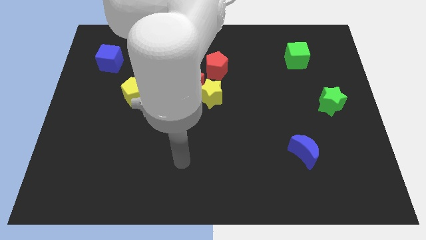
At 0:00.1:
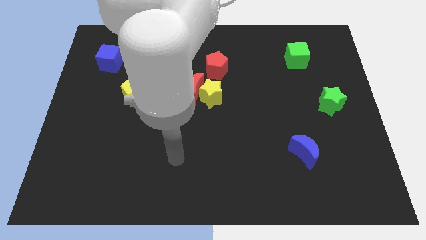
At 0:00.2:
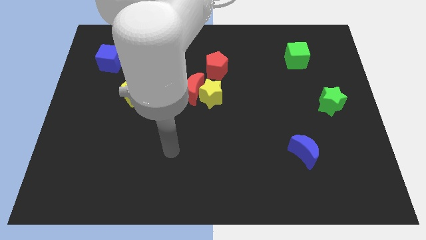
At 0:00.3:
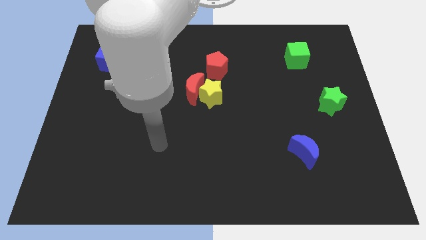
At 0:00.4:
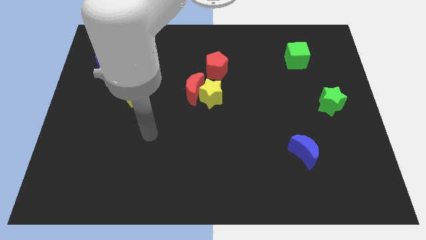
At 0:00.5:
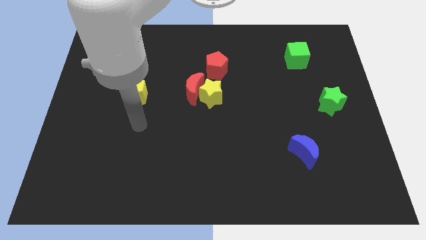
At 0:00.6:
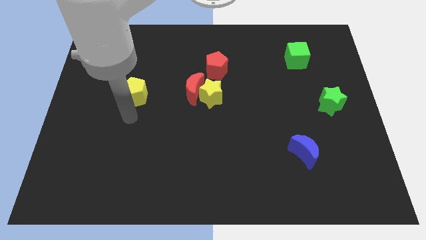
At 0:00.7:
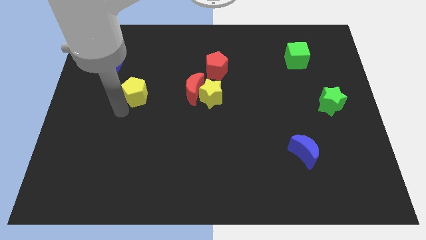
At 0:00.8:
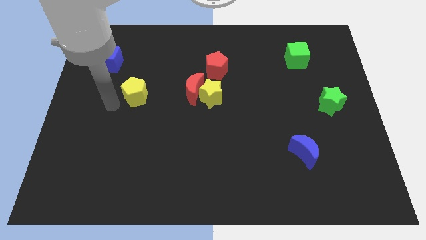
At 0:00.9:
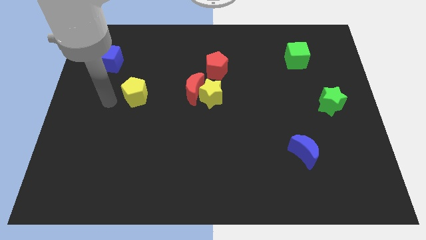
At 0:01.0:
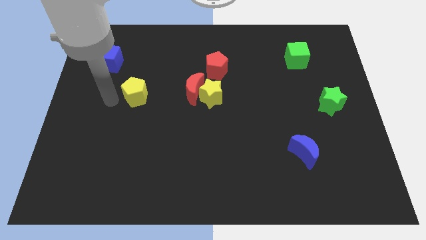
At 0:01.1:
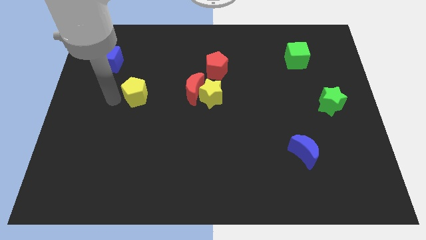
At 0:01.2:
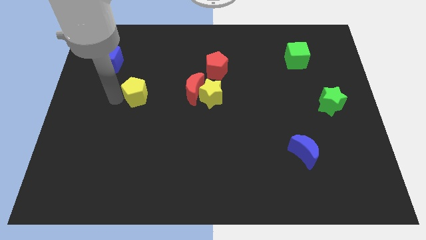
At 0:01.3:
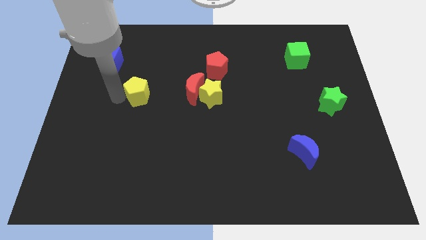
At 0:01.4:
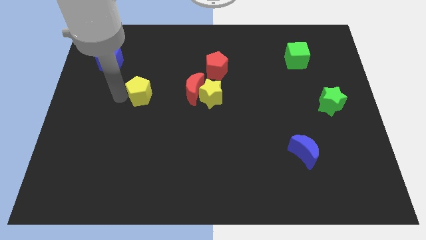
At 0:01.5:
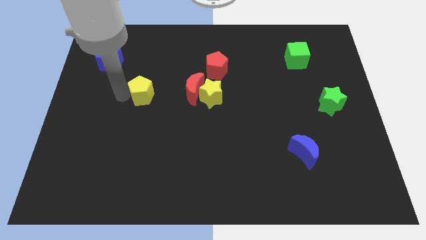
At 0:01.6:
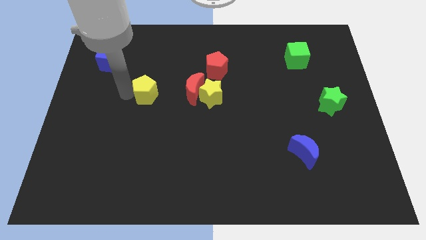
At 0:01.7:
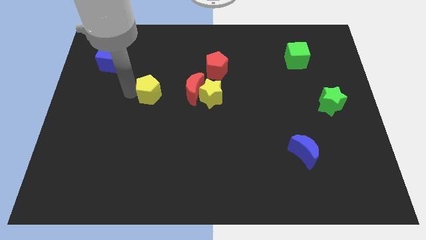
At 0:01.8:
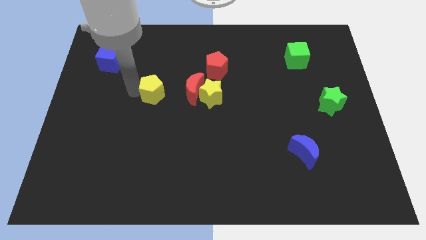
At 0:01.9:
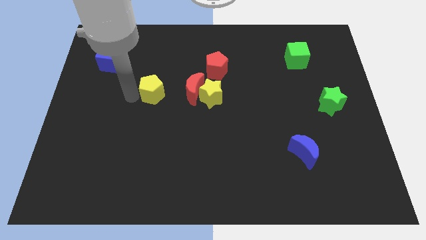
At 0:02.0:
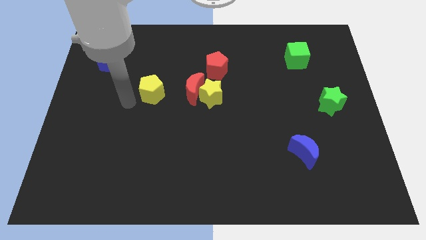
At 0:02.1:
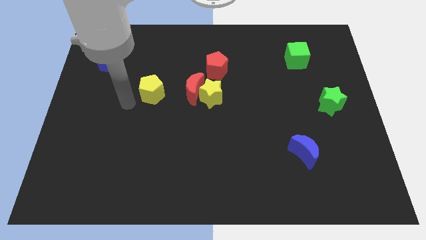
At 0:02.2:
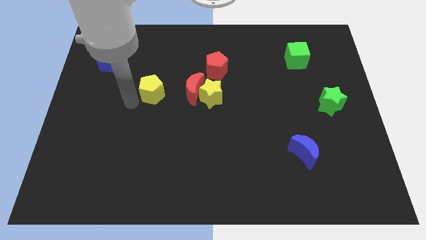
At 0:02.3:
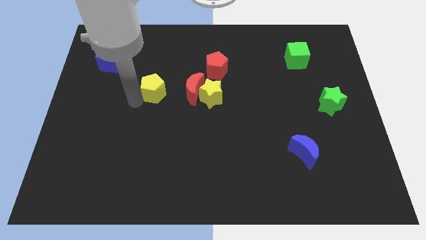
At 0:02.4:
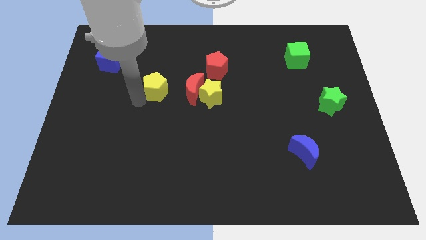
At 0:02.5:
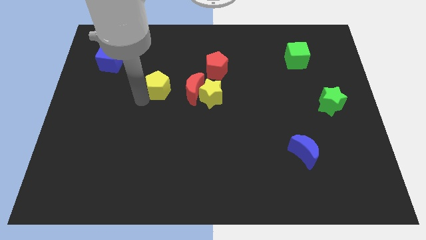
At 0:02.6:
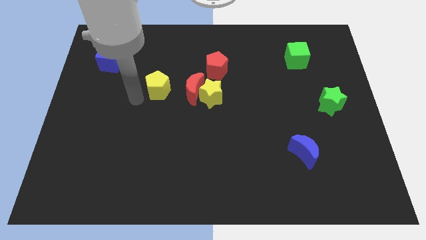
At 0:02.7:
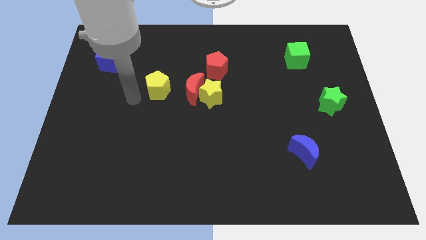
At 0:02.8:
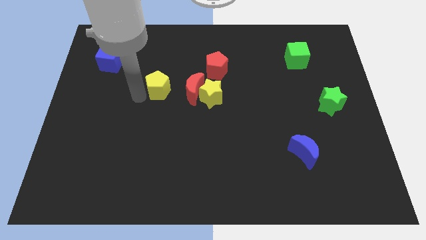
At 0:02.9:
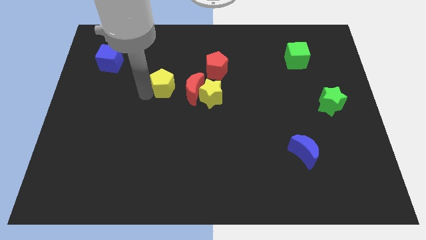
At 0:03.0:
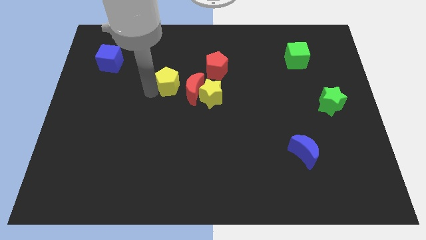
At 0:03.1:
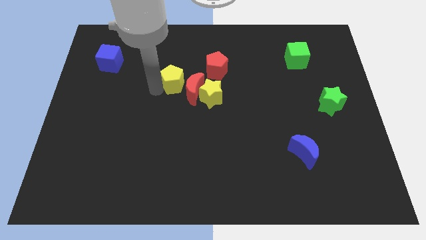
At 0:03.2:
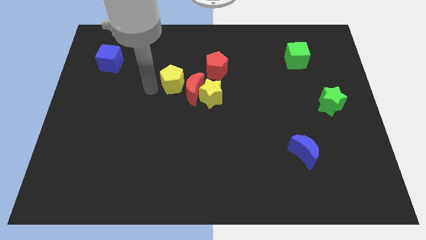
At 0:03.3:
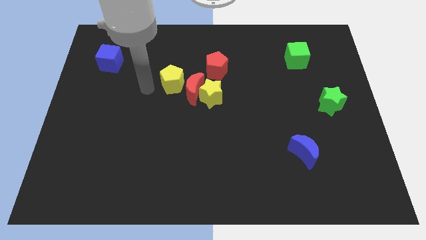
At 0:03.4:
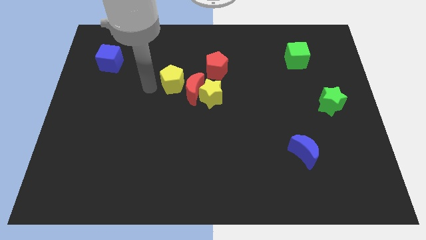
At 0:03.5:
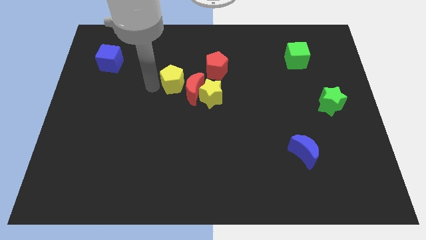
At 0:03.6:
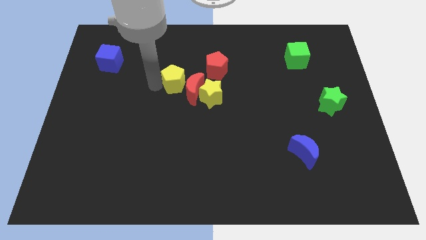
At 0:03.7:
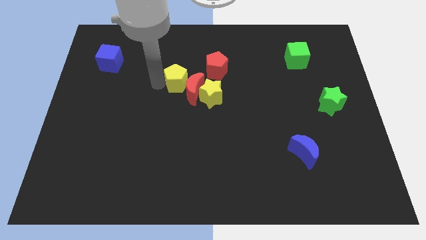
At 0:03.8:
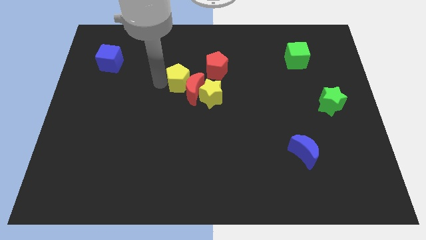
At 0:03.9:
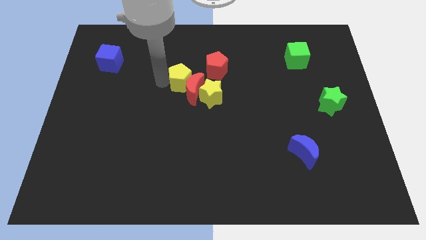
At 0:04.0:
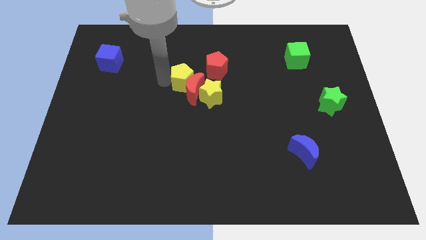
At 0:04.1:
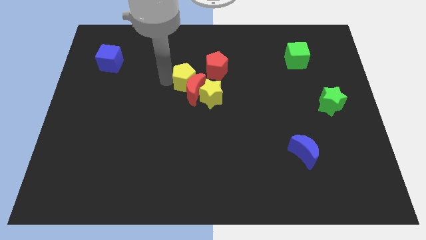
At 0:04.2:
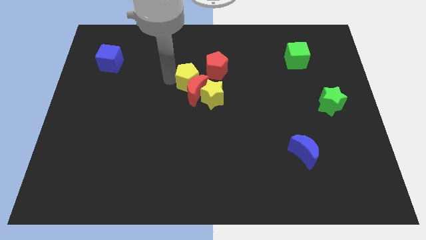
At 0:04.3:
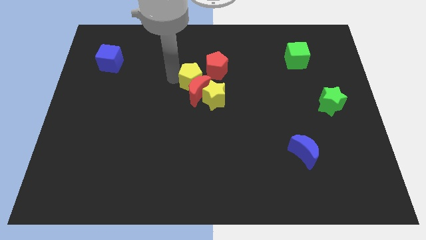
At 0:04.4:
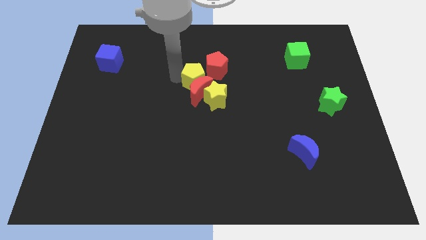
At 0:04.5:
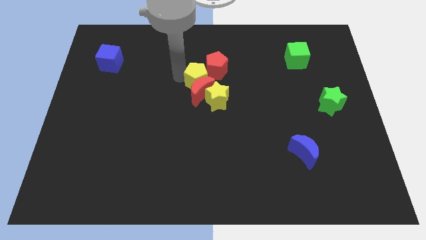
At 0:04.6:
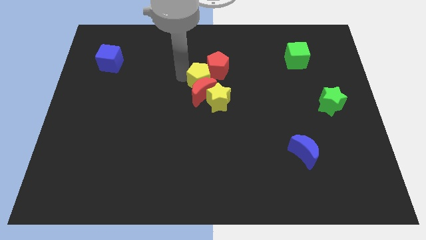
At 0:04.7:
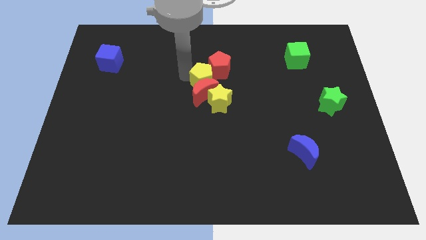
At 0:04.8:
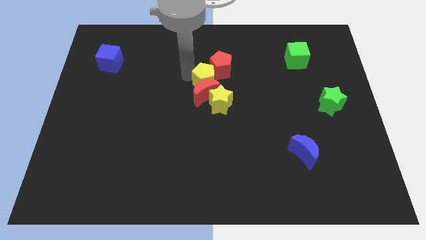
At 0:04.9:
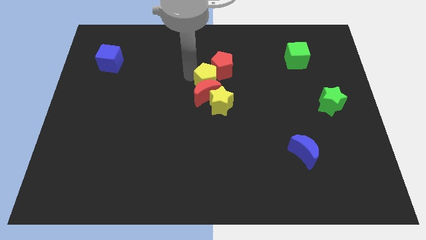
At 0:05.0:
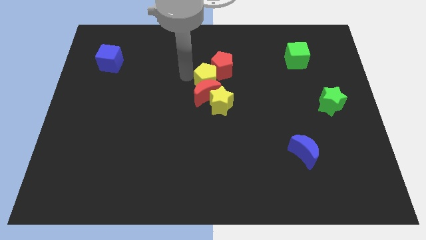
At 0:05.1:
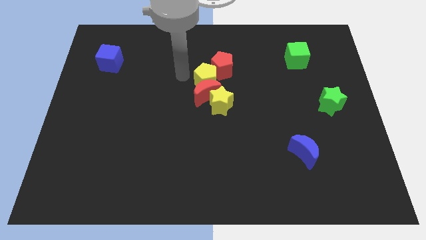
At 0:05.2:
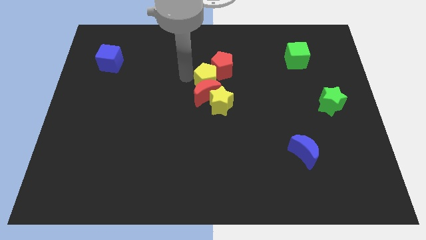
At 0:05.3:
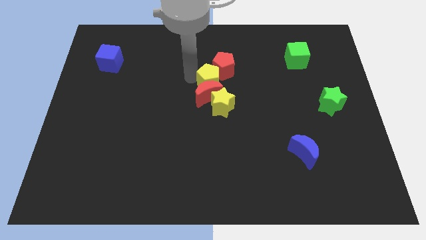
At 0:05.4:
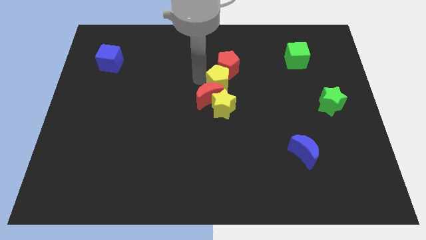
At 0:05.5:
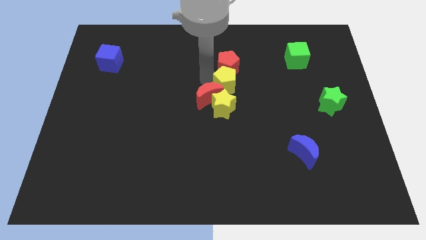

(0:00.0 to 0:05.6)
move the yellow pentagon right

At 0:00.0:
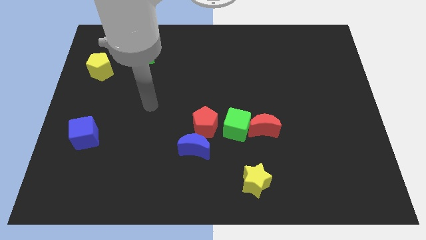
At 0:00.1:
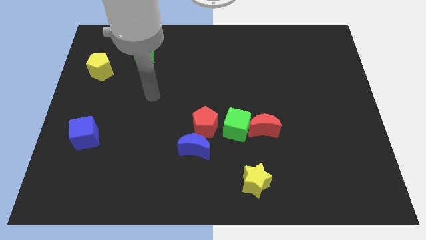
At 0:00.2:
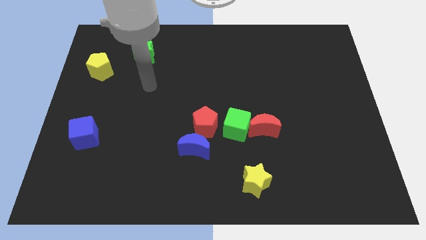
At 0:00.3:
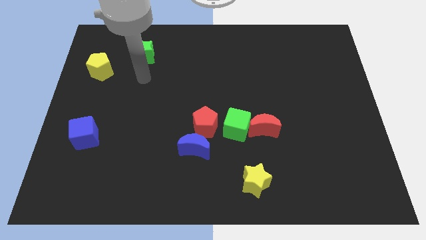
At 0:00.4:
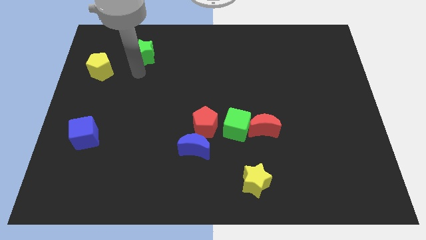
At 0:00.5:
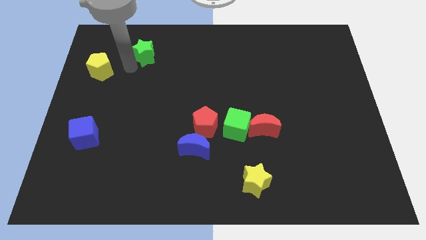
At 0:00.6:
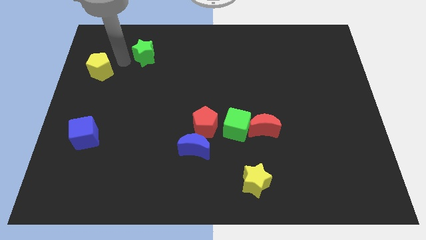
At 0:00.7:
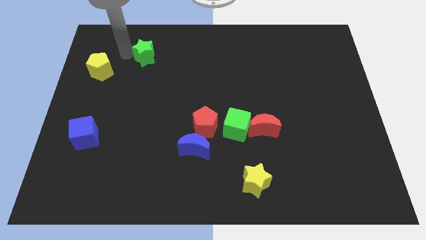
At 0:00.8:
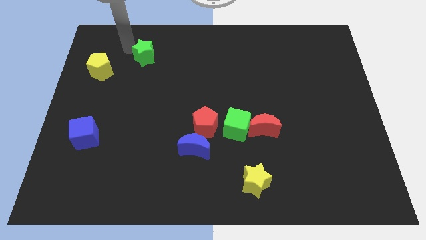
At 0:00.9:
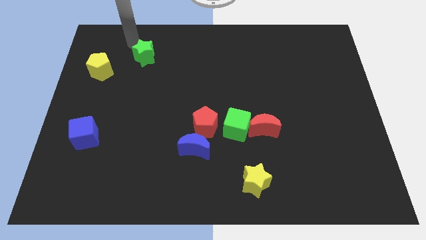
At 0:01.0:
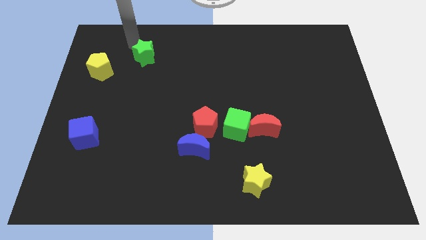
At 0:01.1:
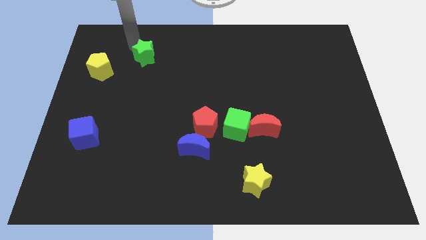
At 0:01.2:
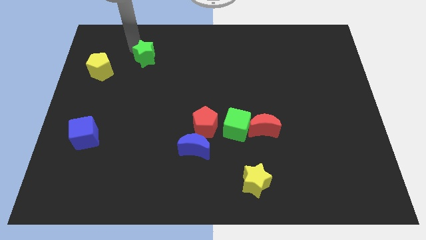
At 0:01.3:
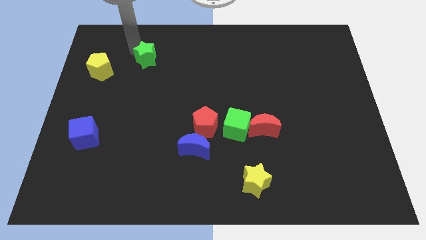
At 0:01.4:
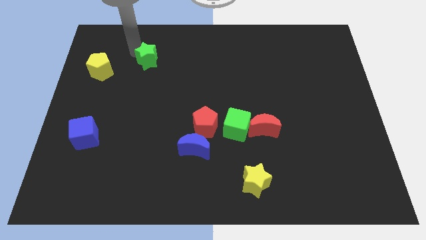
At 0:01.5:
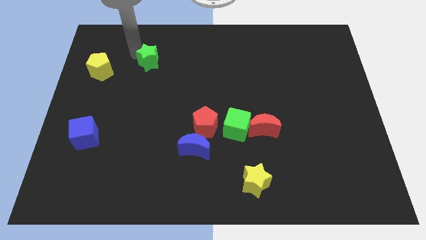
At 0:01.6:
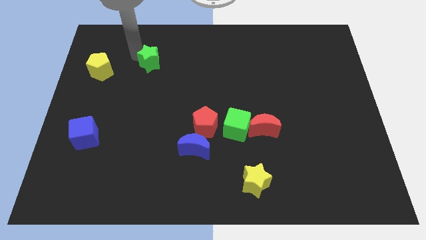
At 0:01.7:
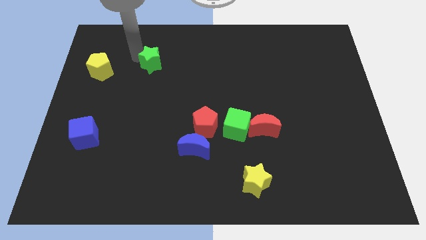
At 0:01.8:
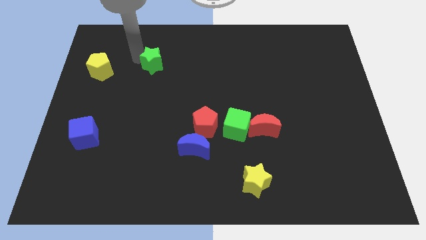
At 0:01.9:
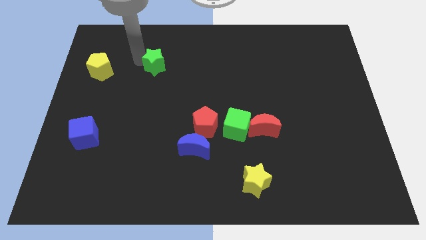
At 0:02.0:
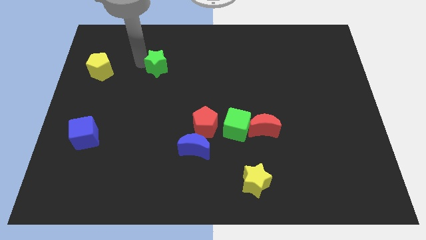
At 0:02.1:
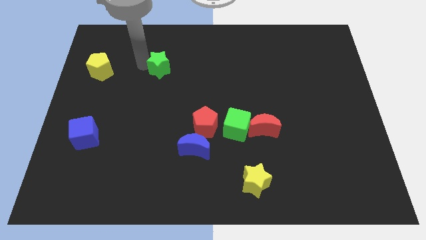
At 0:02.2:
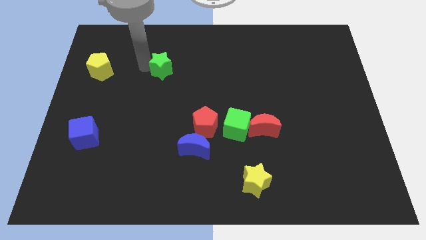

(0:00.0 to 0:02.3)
slightly push the green star downwards and right diagonally

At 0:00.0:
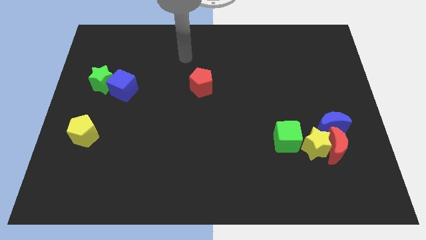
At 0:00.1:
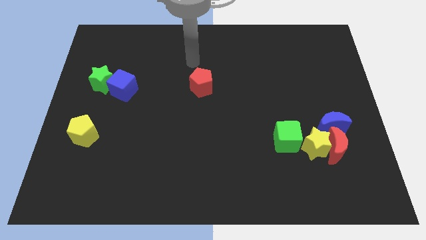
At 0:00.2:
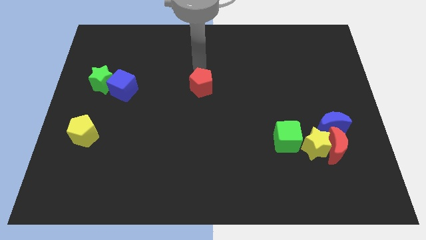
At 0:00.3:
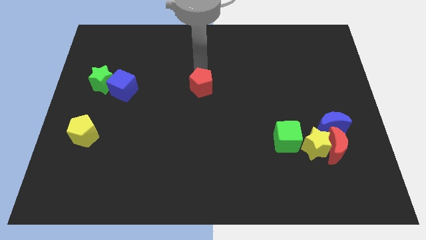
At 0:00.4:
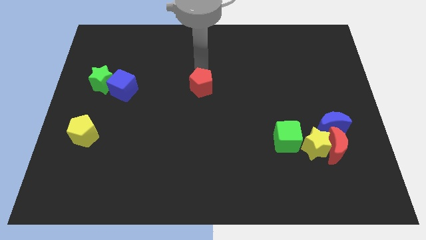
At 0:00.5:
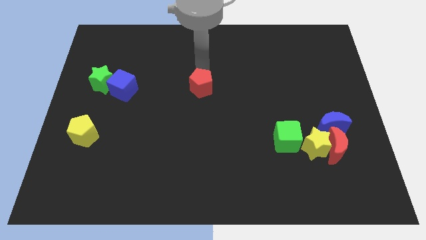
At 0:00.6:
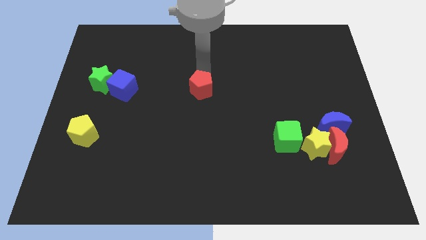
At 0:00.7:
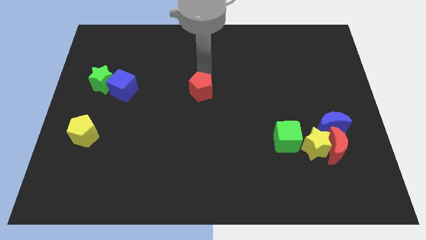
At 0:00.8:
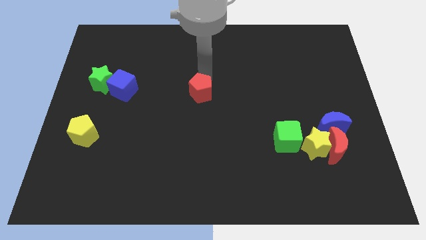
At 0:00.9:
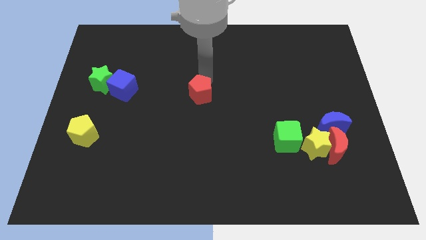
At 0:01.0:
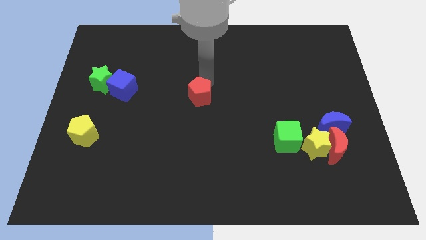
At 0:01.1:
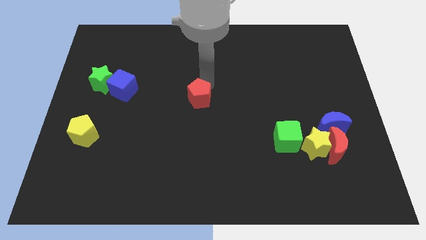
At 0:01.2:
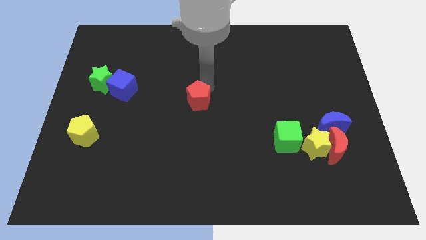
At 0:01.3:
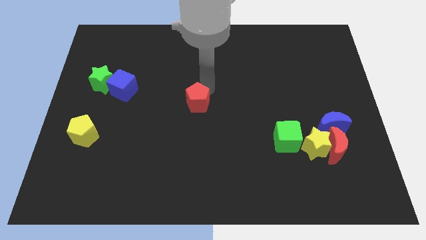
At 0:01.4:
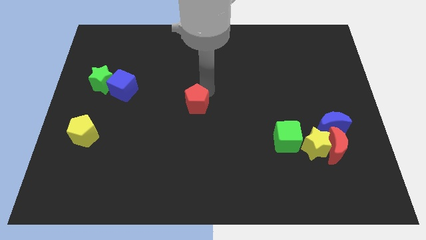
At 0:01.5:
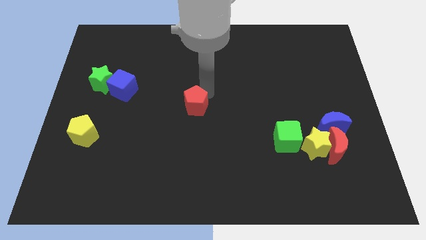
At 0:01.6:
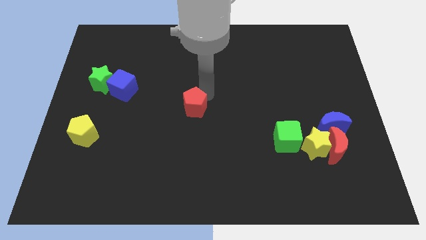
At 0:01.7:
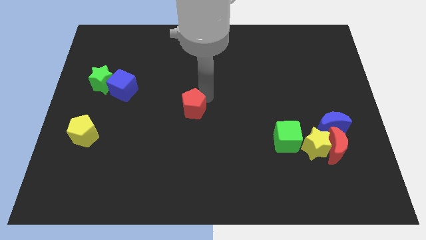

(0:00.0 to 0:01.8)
push the red pentagon down somewhat
